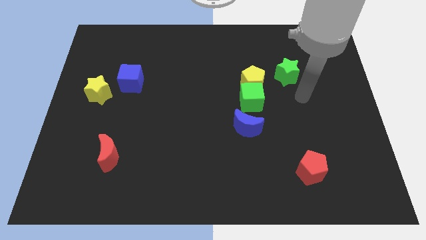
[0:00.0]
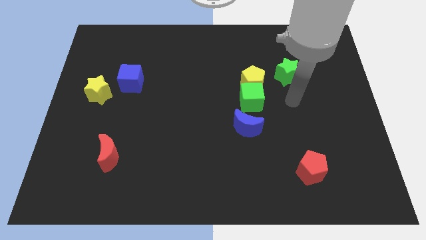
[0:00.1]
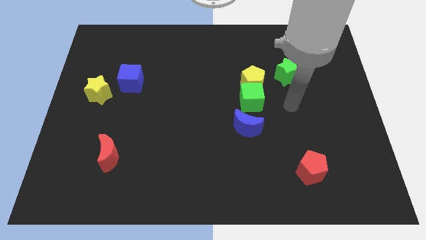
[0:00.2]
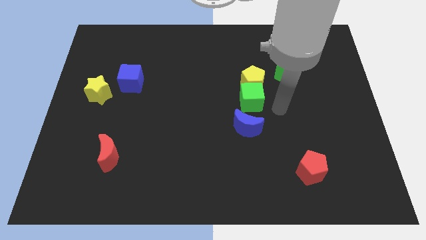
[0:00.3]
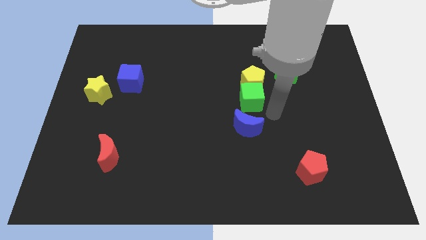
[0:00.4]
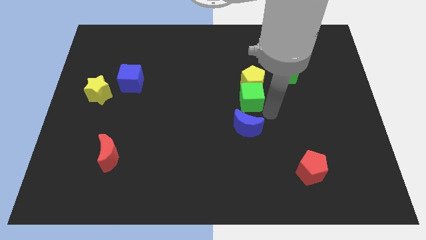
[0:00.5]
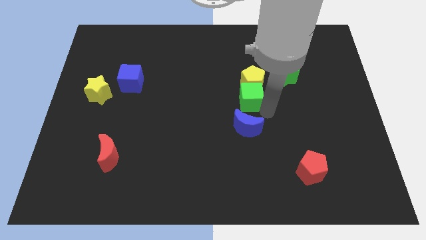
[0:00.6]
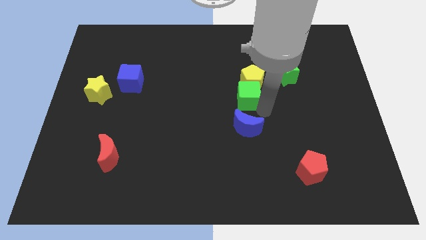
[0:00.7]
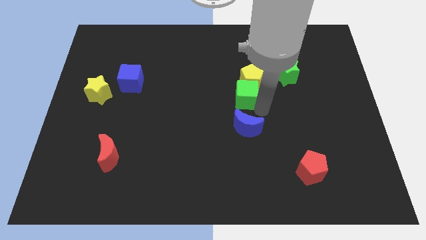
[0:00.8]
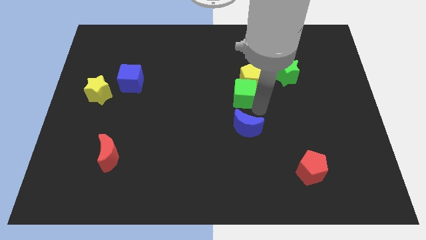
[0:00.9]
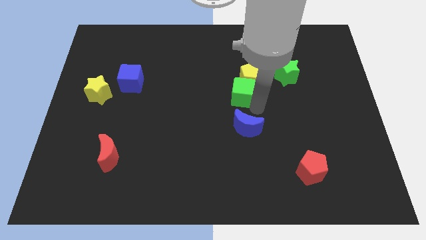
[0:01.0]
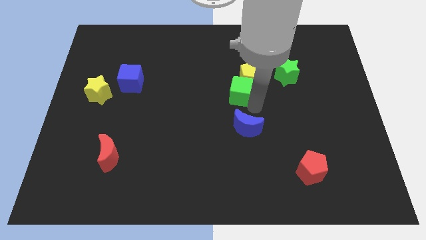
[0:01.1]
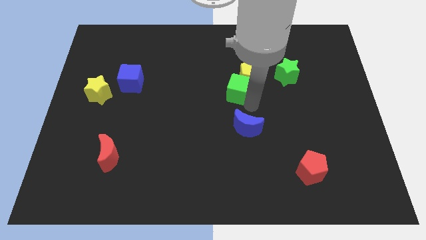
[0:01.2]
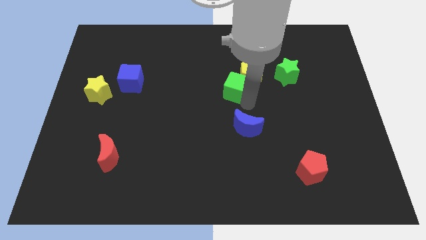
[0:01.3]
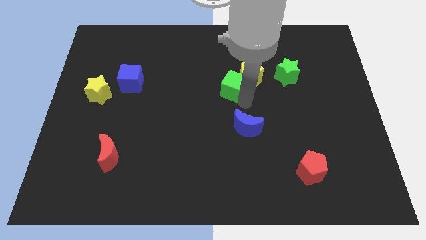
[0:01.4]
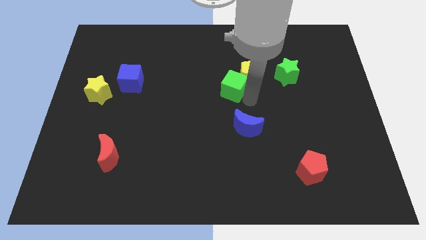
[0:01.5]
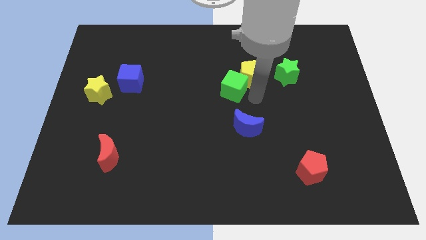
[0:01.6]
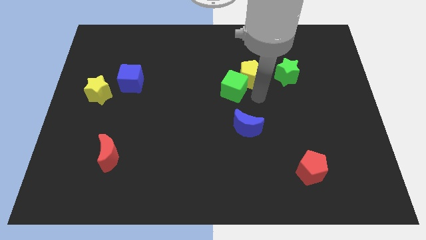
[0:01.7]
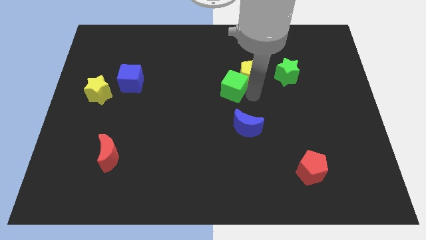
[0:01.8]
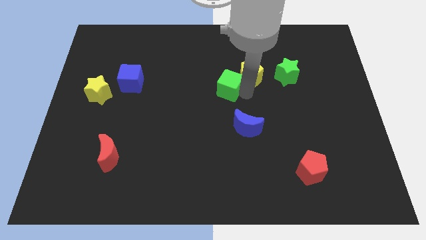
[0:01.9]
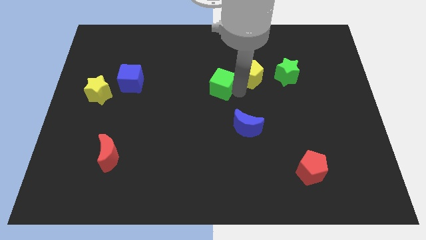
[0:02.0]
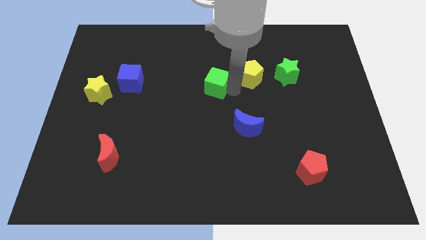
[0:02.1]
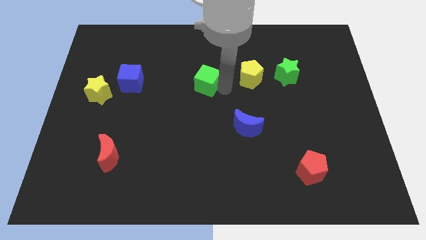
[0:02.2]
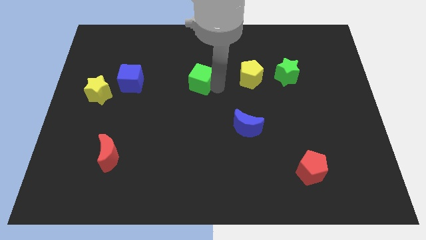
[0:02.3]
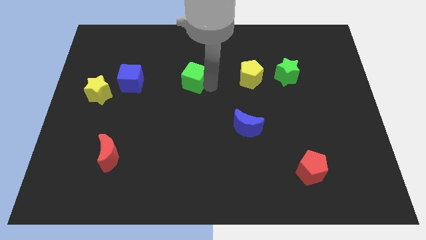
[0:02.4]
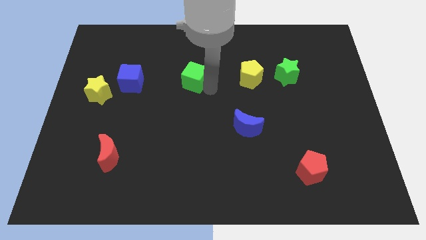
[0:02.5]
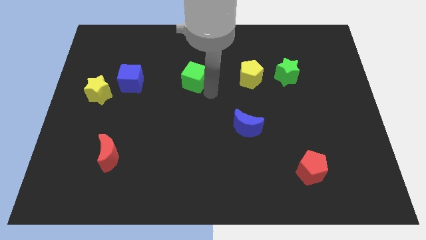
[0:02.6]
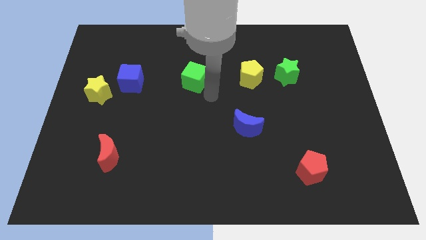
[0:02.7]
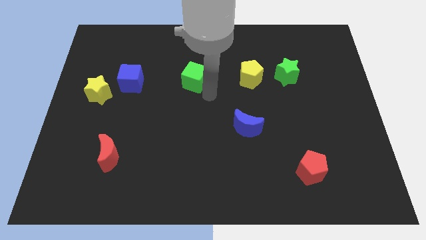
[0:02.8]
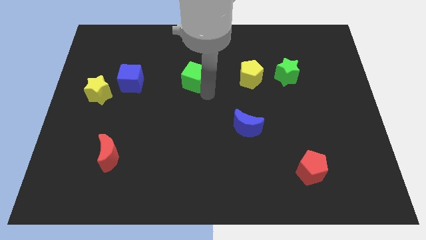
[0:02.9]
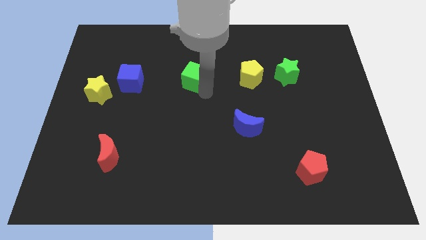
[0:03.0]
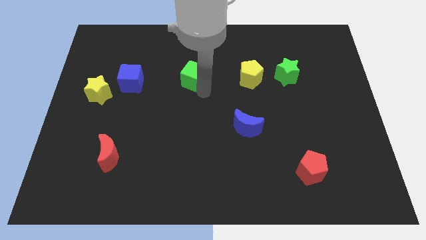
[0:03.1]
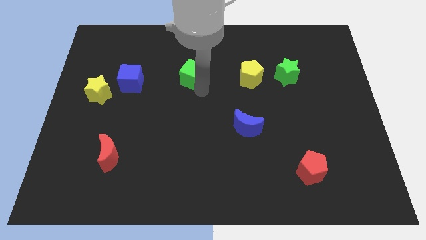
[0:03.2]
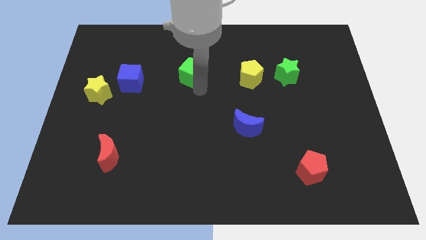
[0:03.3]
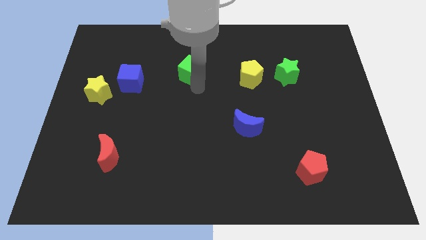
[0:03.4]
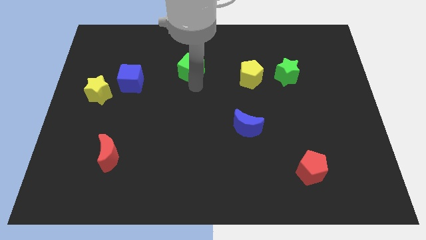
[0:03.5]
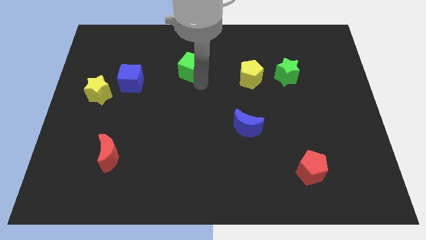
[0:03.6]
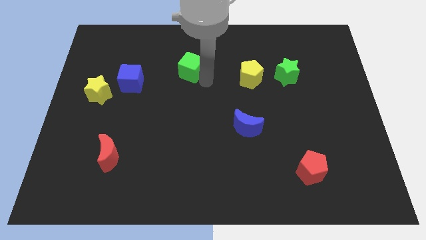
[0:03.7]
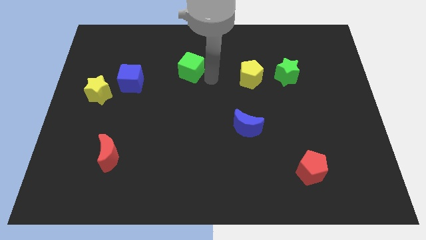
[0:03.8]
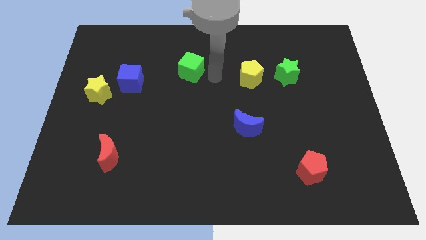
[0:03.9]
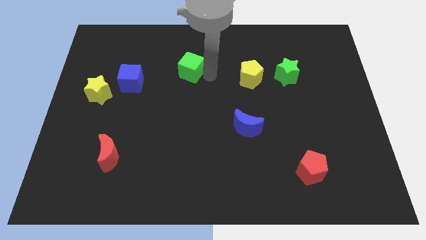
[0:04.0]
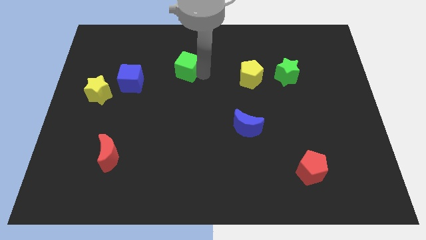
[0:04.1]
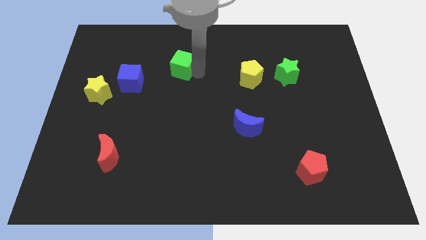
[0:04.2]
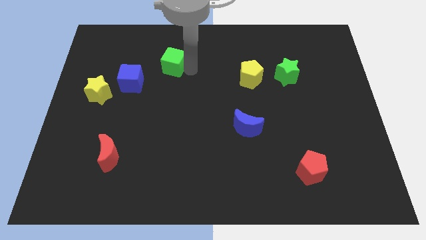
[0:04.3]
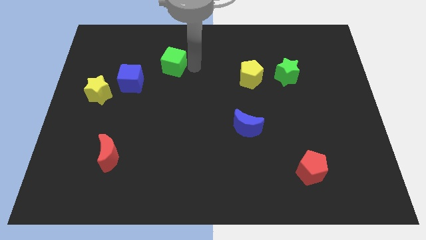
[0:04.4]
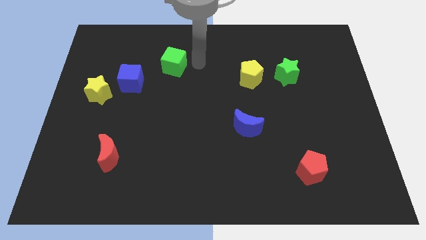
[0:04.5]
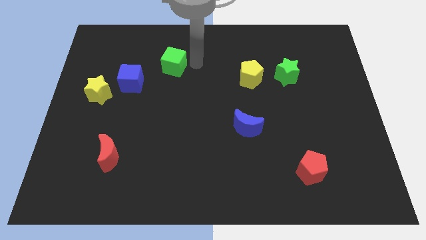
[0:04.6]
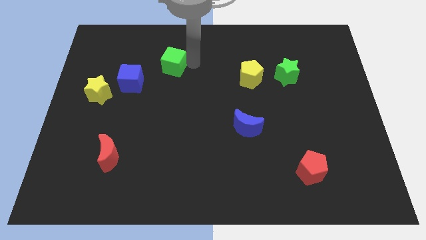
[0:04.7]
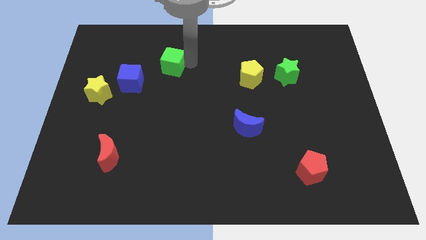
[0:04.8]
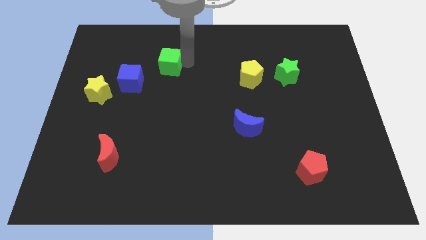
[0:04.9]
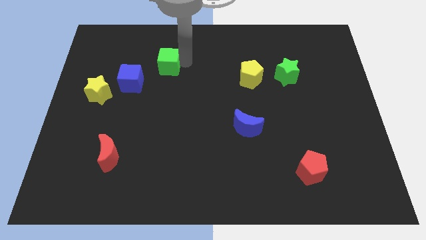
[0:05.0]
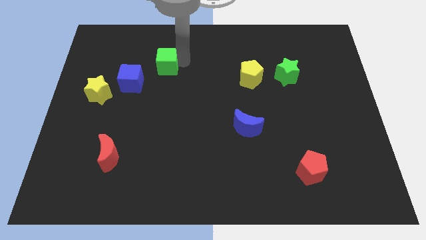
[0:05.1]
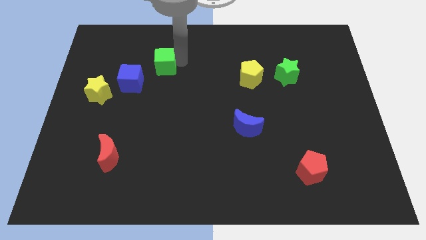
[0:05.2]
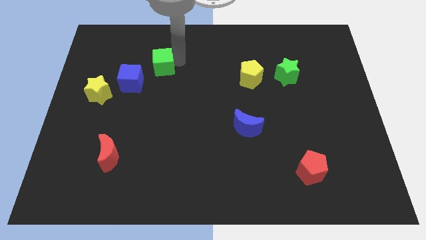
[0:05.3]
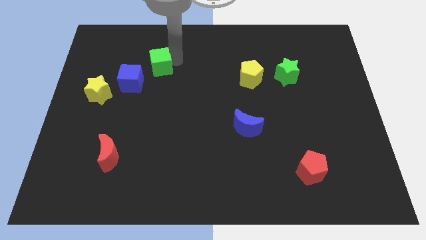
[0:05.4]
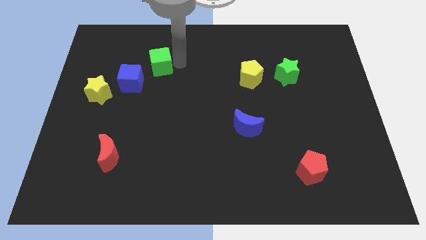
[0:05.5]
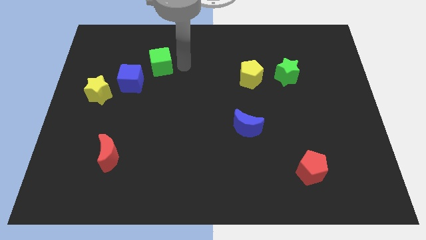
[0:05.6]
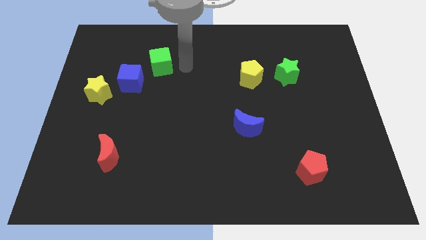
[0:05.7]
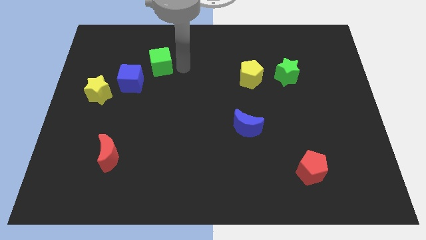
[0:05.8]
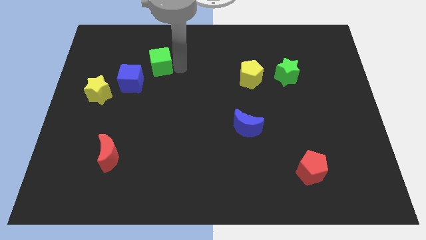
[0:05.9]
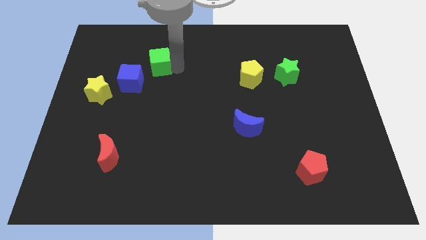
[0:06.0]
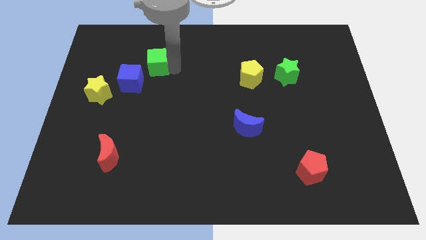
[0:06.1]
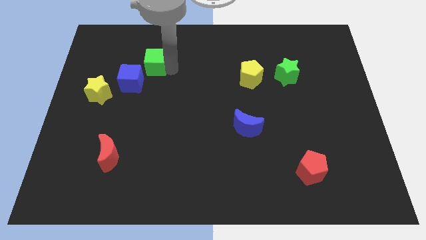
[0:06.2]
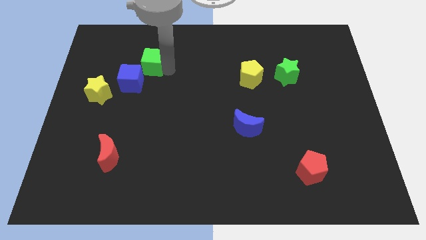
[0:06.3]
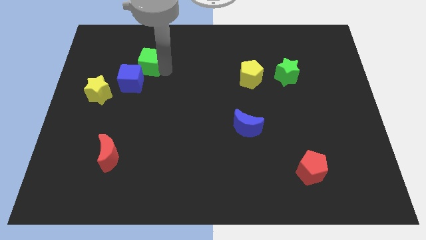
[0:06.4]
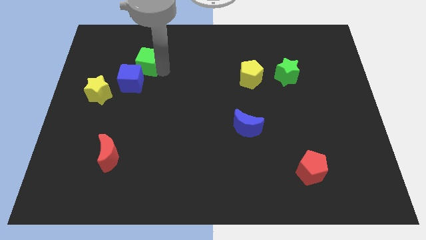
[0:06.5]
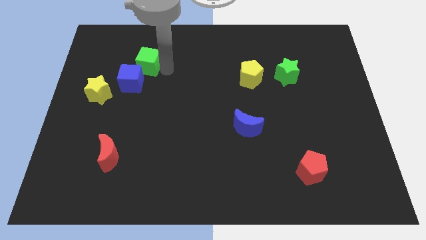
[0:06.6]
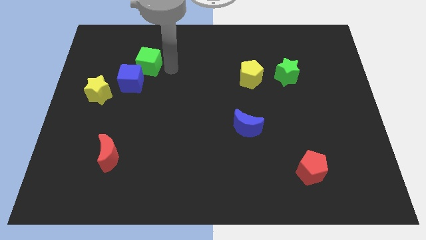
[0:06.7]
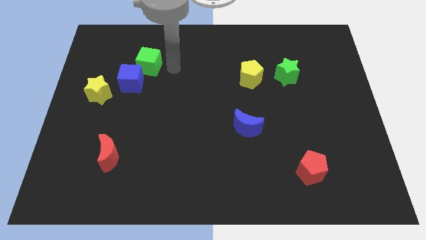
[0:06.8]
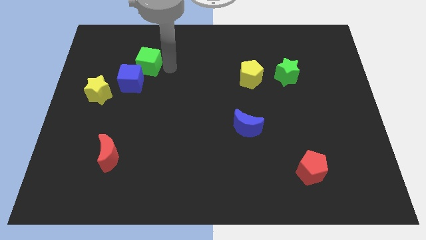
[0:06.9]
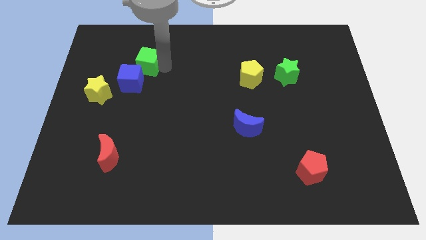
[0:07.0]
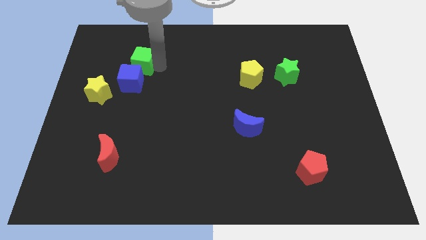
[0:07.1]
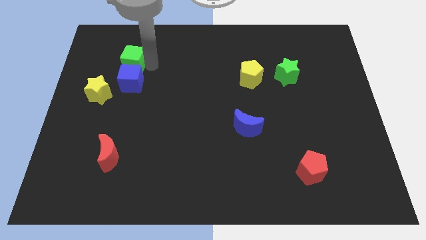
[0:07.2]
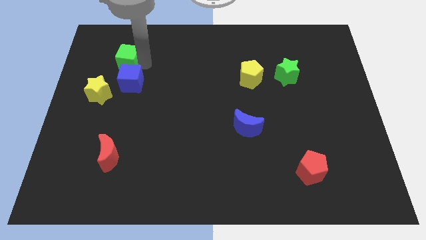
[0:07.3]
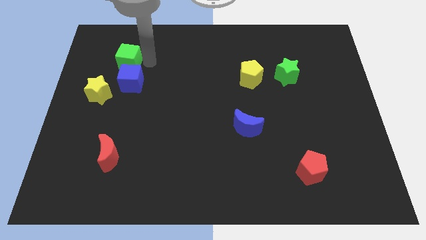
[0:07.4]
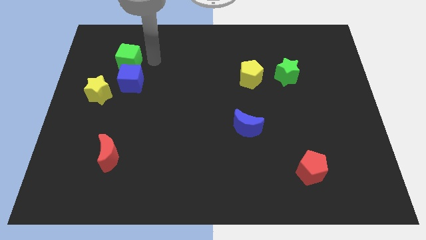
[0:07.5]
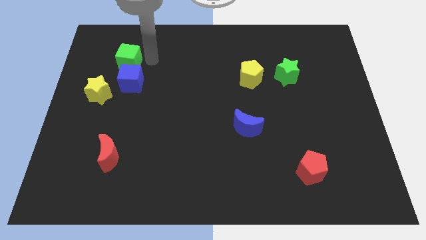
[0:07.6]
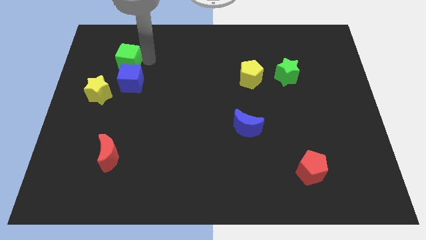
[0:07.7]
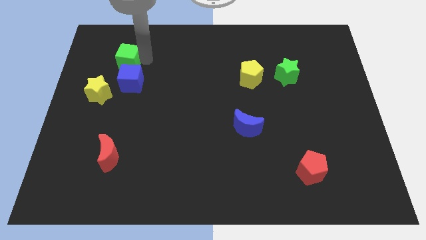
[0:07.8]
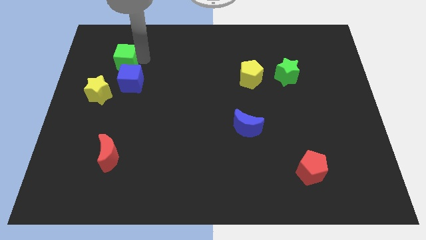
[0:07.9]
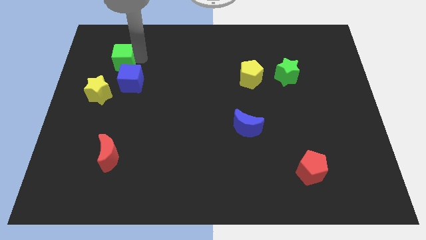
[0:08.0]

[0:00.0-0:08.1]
slide the green cube to the top side of the yellow star
